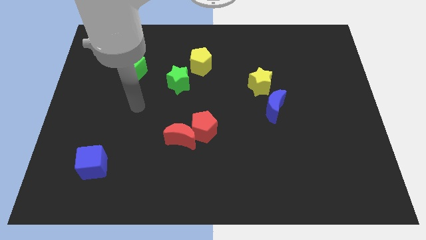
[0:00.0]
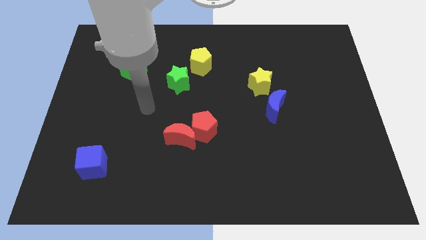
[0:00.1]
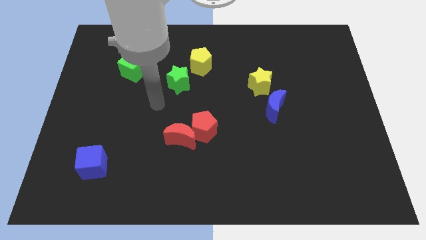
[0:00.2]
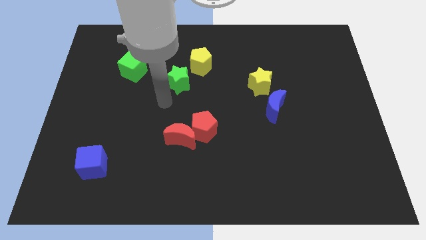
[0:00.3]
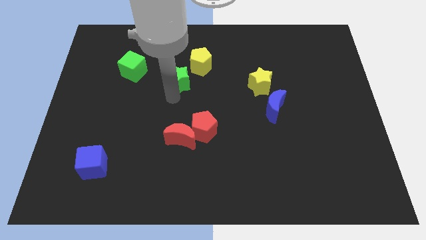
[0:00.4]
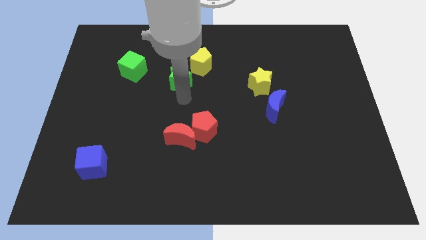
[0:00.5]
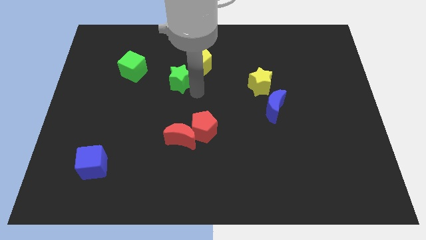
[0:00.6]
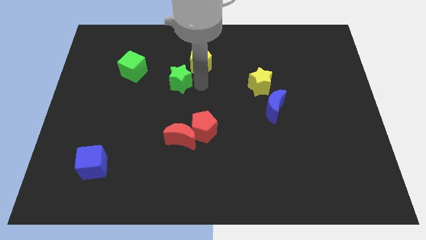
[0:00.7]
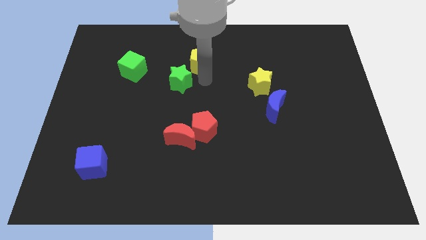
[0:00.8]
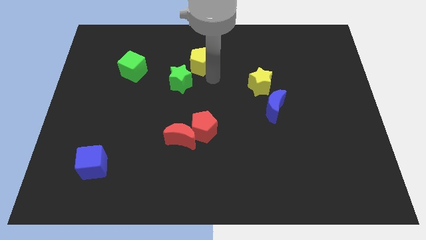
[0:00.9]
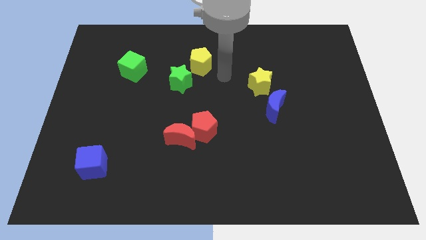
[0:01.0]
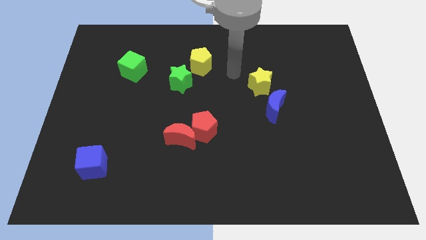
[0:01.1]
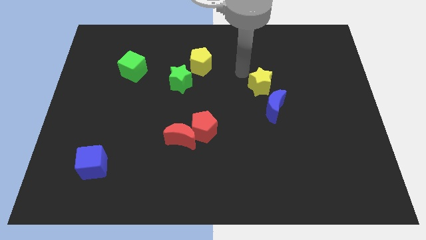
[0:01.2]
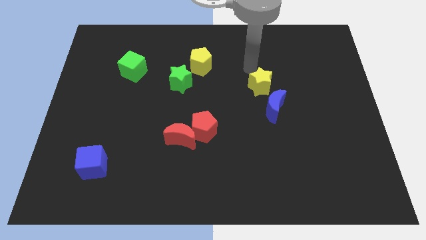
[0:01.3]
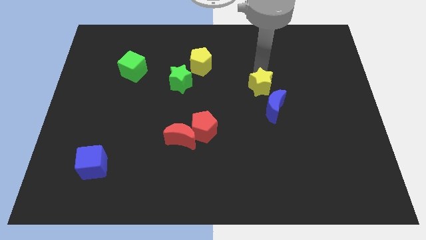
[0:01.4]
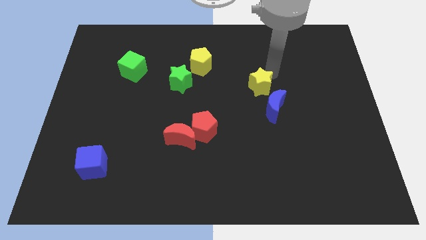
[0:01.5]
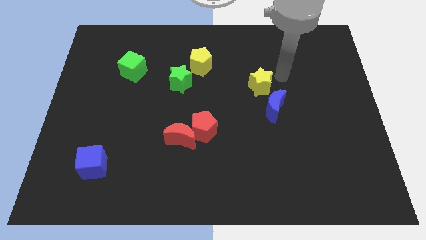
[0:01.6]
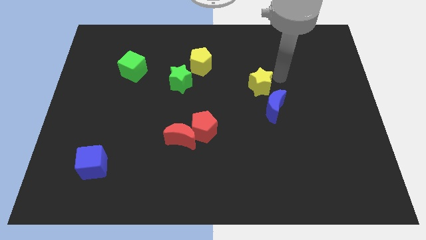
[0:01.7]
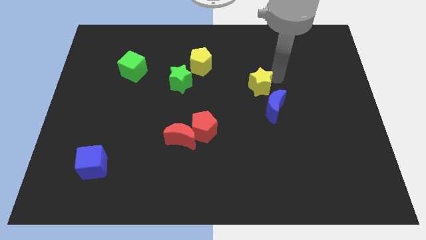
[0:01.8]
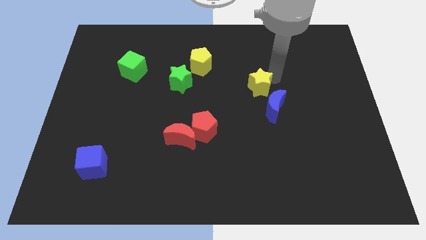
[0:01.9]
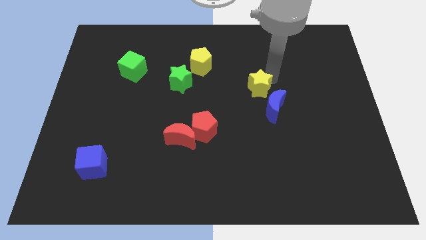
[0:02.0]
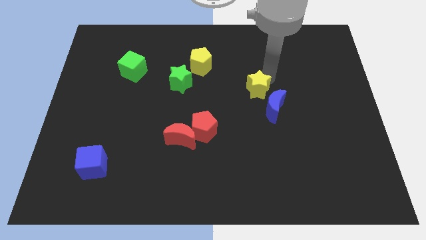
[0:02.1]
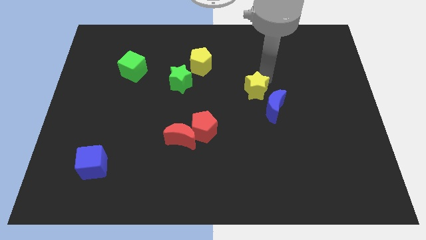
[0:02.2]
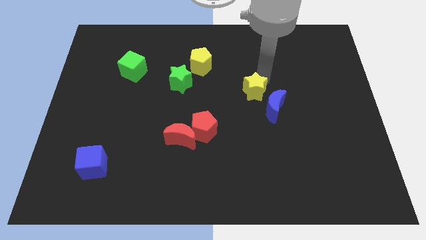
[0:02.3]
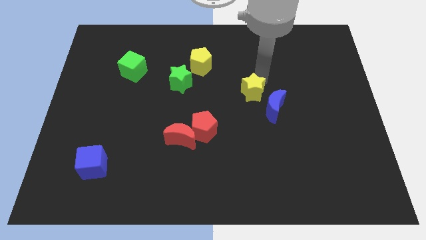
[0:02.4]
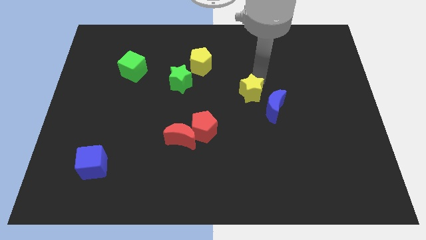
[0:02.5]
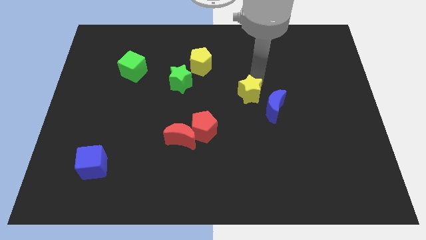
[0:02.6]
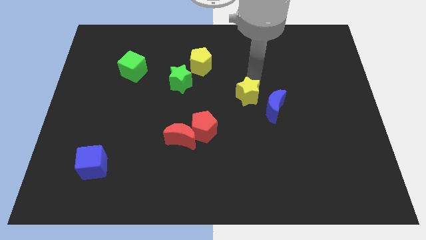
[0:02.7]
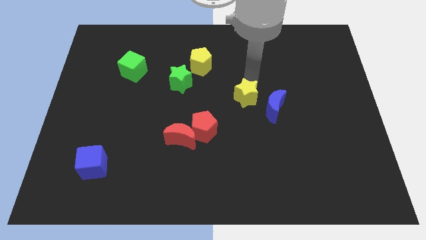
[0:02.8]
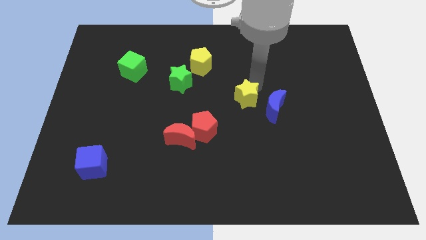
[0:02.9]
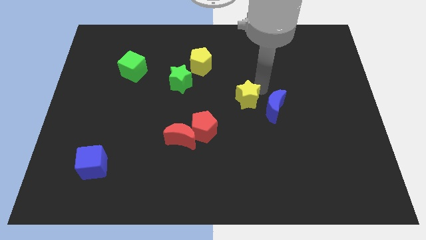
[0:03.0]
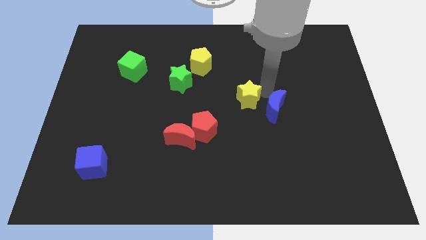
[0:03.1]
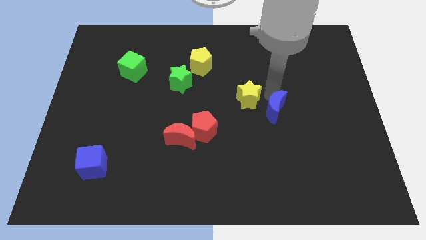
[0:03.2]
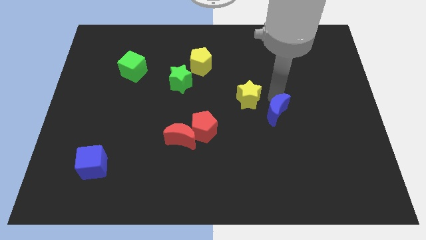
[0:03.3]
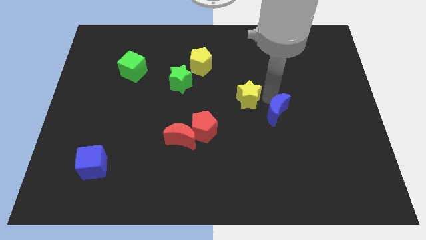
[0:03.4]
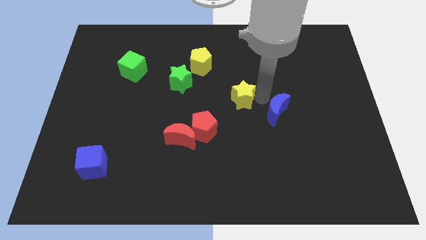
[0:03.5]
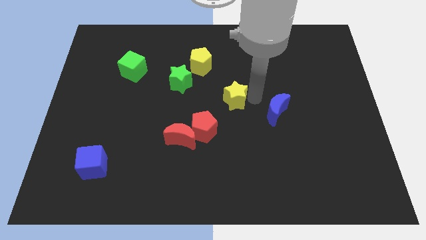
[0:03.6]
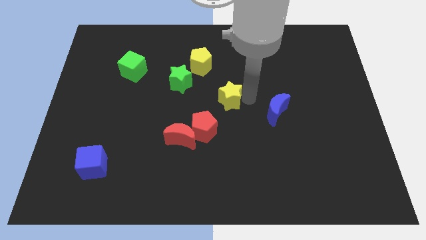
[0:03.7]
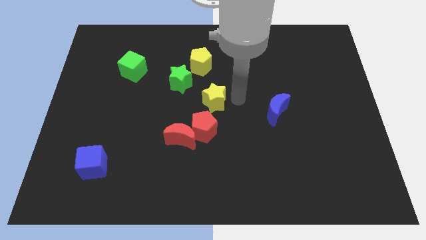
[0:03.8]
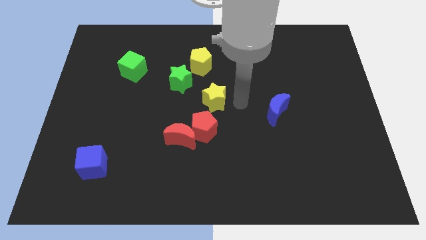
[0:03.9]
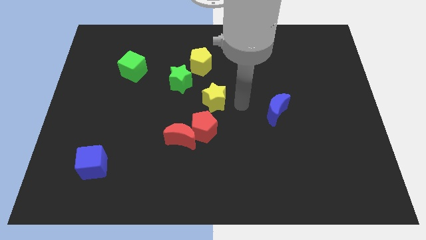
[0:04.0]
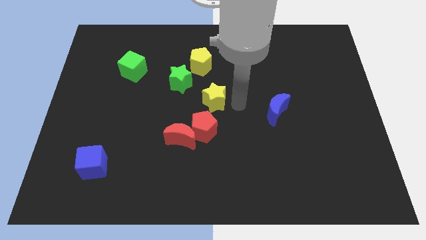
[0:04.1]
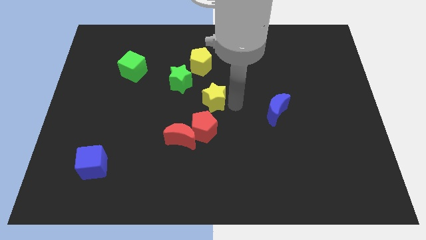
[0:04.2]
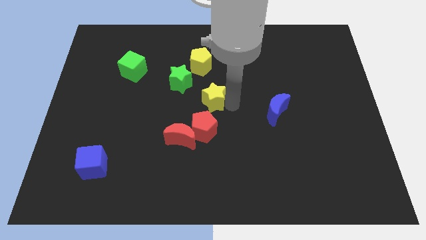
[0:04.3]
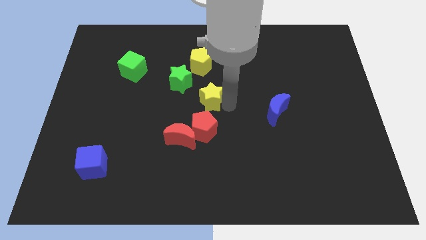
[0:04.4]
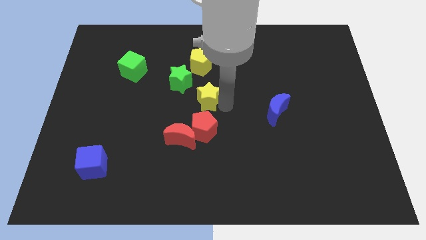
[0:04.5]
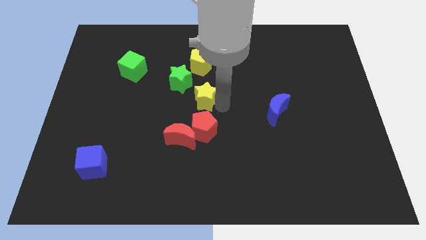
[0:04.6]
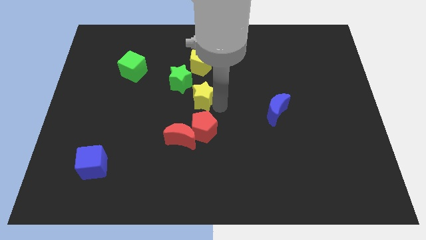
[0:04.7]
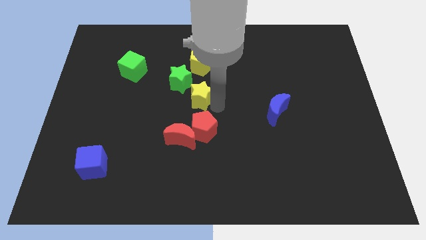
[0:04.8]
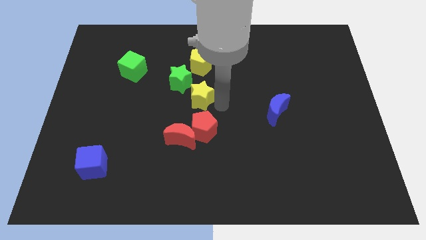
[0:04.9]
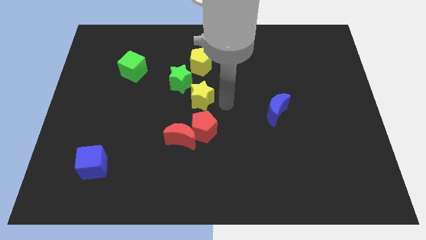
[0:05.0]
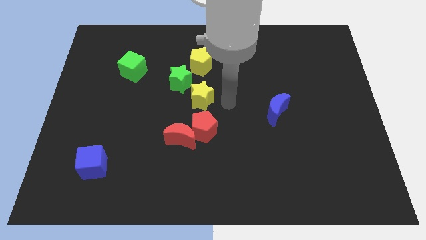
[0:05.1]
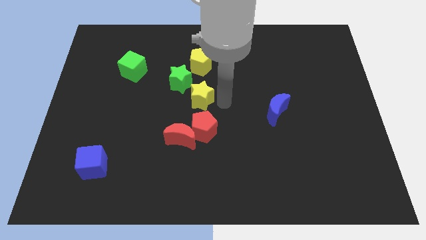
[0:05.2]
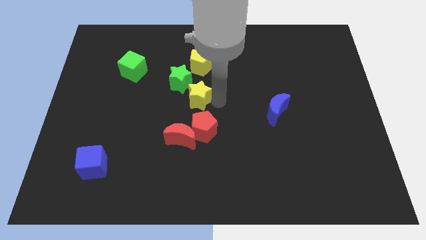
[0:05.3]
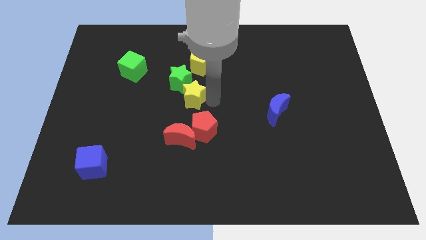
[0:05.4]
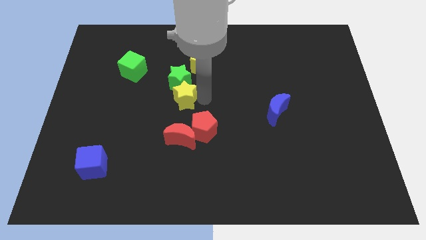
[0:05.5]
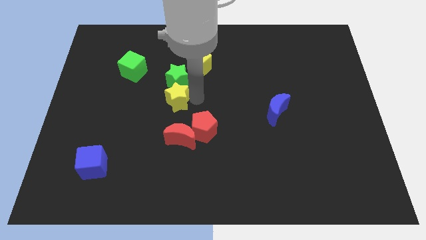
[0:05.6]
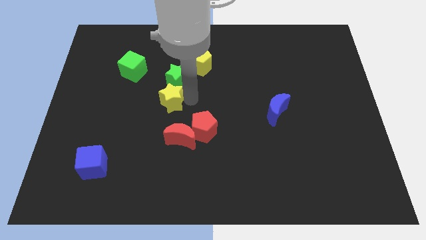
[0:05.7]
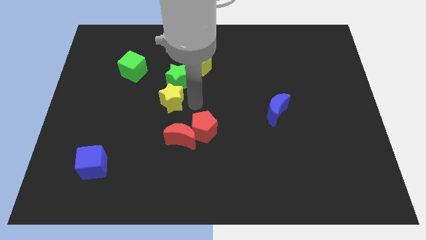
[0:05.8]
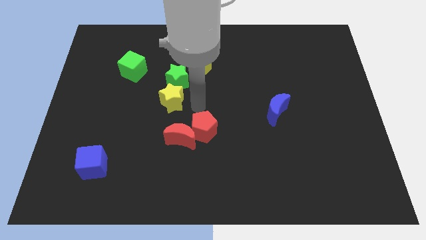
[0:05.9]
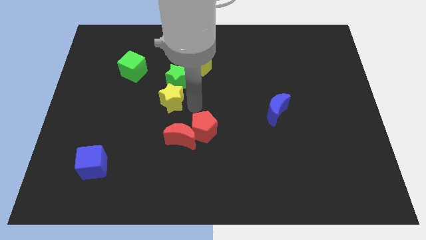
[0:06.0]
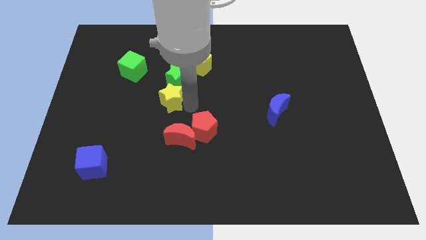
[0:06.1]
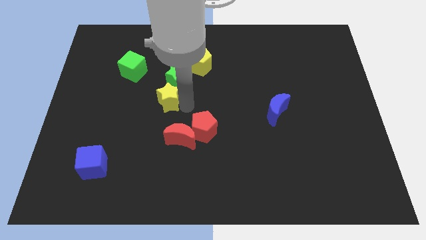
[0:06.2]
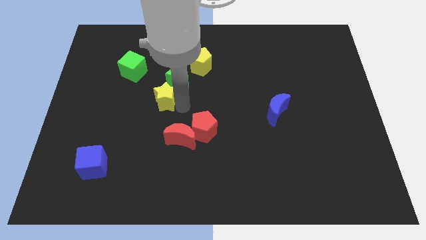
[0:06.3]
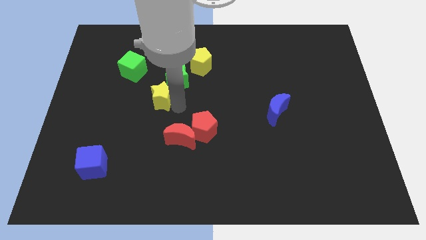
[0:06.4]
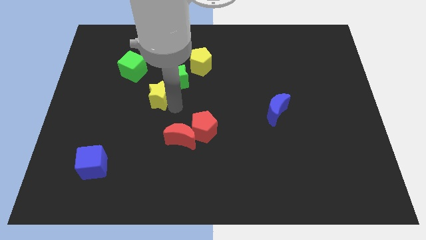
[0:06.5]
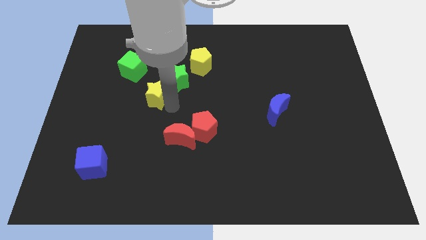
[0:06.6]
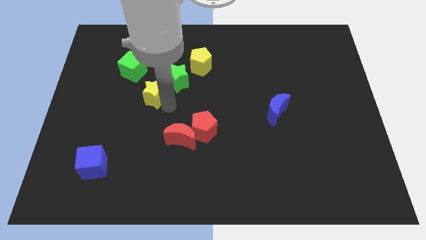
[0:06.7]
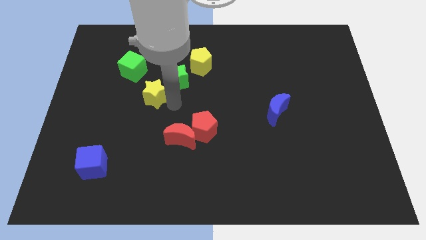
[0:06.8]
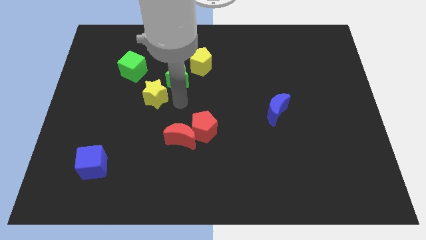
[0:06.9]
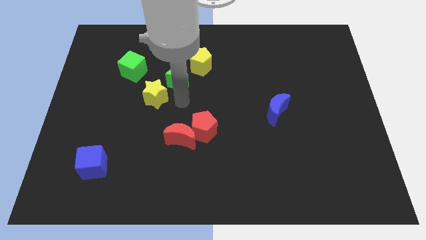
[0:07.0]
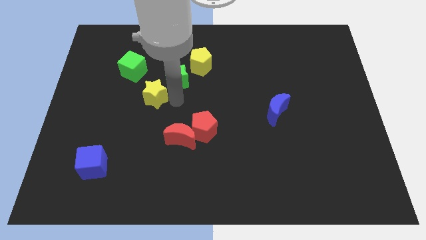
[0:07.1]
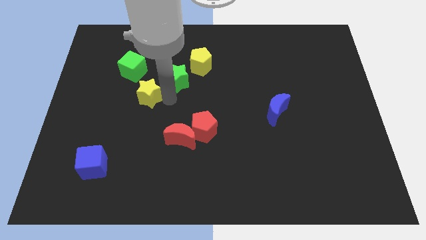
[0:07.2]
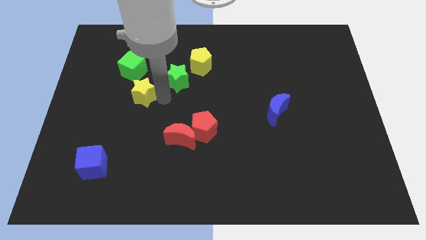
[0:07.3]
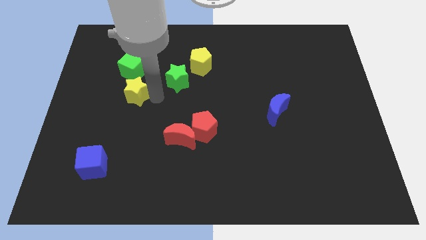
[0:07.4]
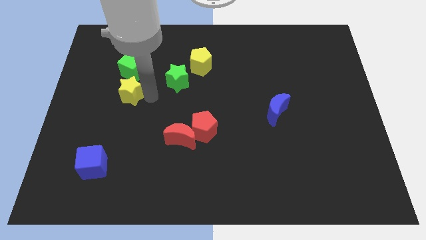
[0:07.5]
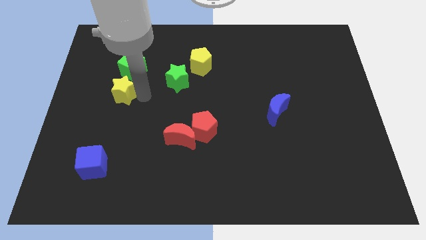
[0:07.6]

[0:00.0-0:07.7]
push the yellow star to the bottom left side of the green cube
